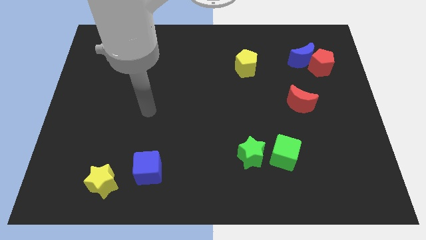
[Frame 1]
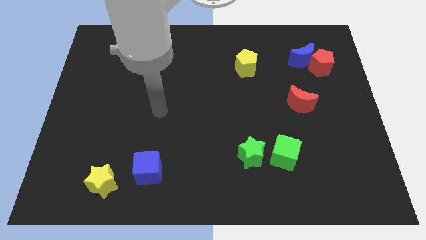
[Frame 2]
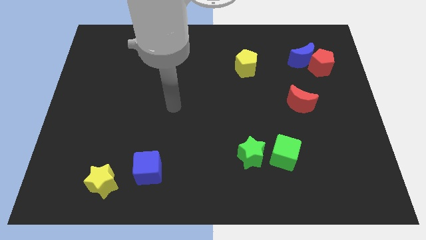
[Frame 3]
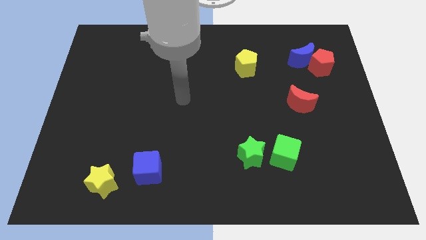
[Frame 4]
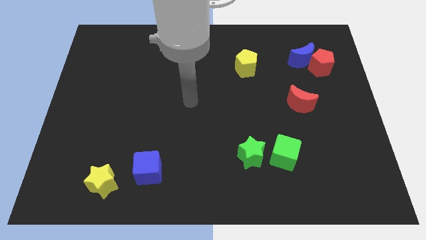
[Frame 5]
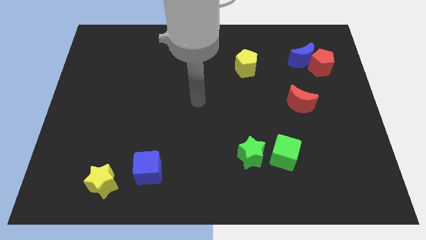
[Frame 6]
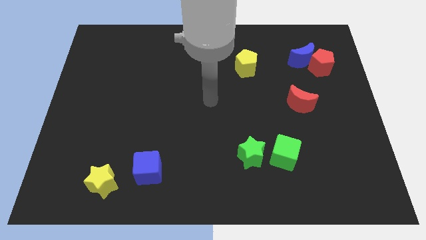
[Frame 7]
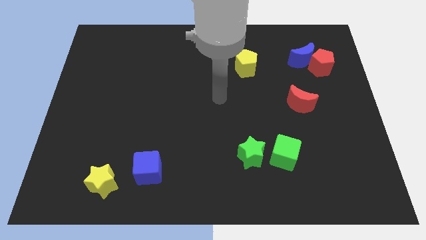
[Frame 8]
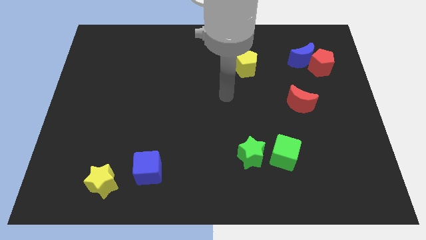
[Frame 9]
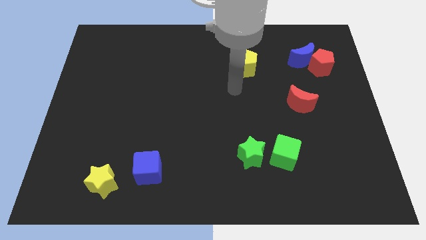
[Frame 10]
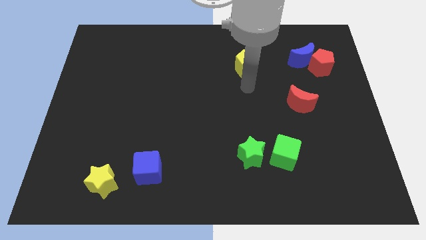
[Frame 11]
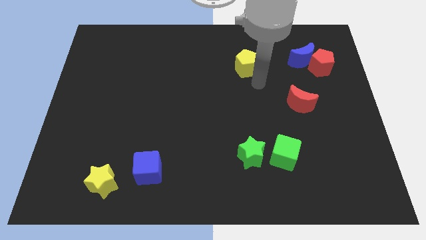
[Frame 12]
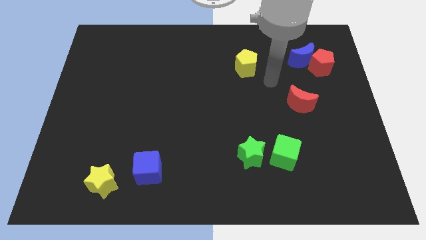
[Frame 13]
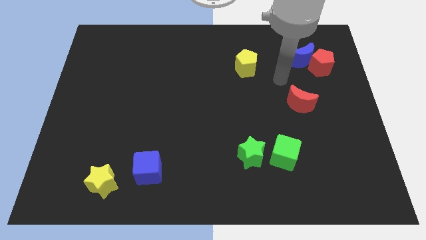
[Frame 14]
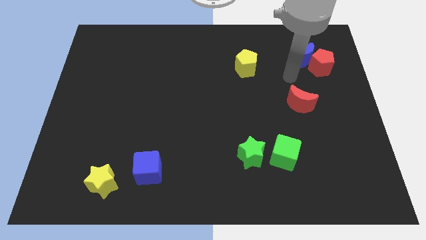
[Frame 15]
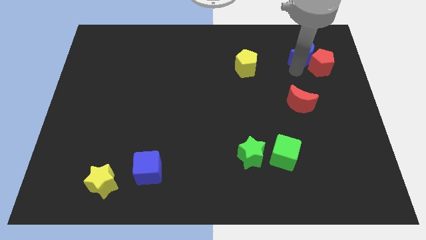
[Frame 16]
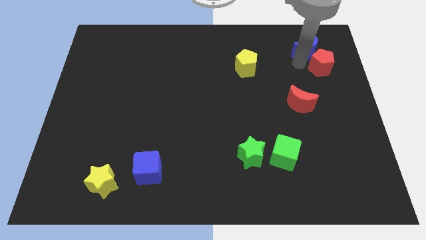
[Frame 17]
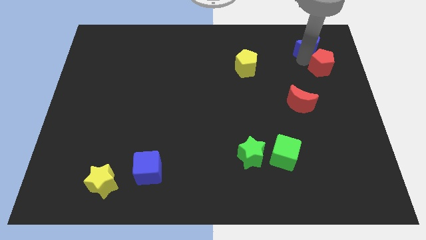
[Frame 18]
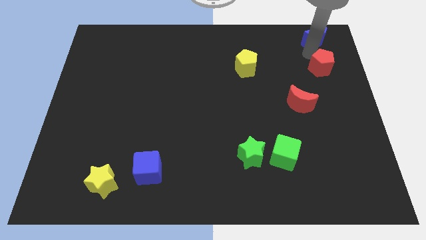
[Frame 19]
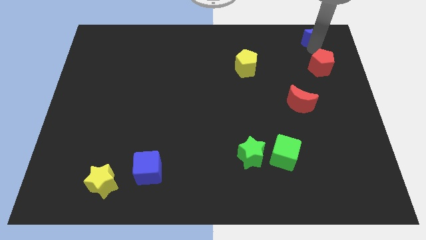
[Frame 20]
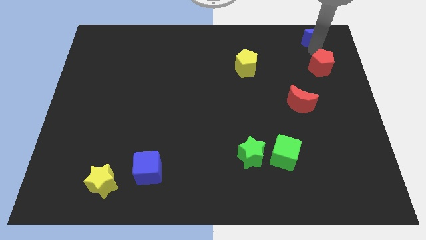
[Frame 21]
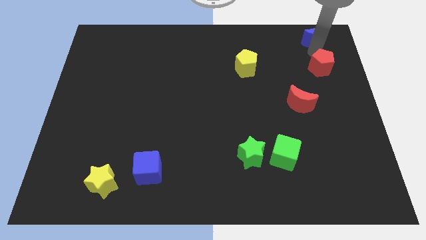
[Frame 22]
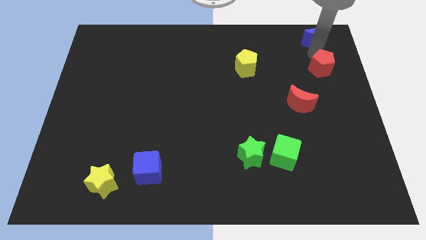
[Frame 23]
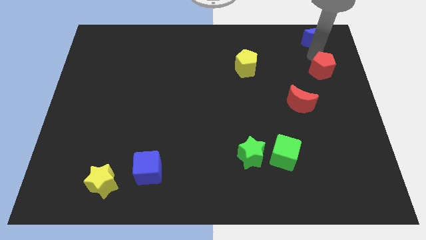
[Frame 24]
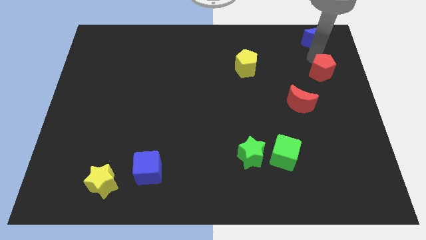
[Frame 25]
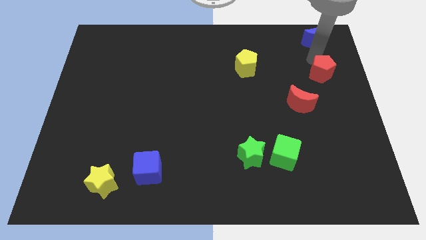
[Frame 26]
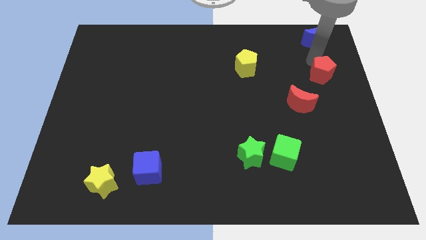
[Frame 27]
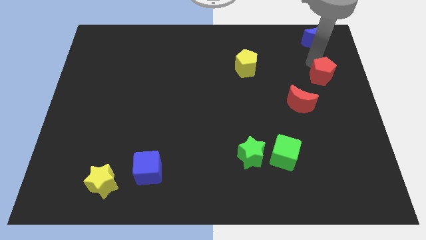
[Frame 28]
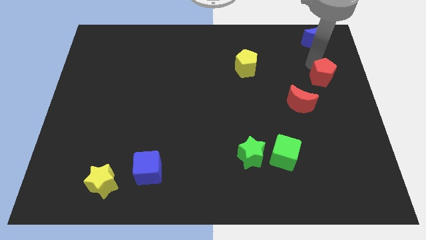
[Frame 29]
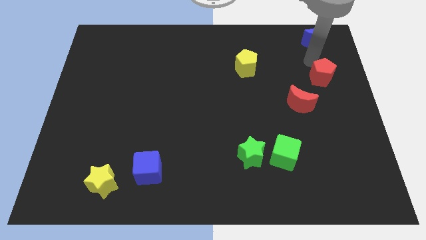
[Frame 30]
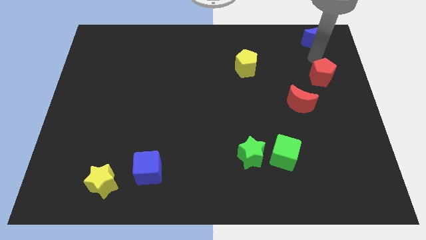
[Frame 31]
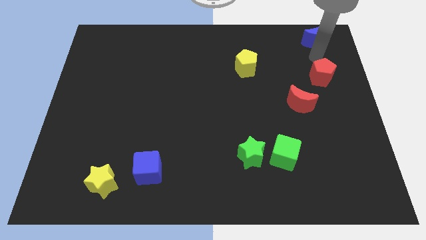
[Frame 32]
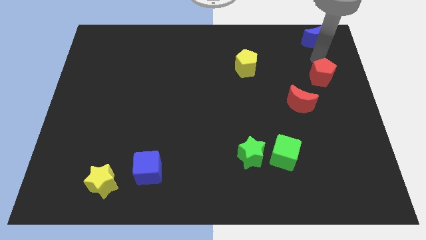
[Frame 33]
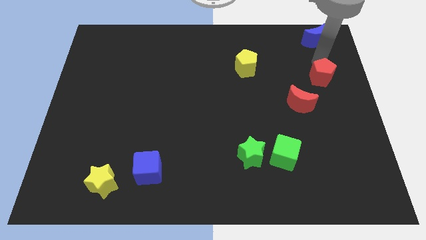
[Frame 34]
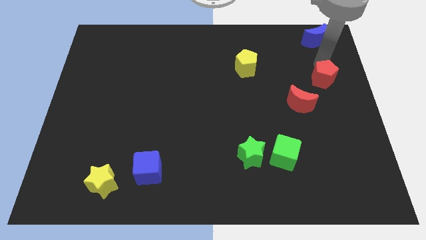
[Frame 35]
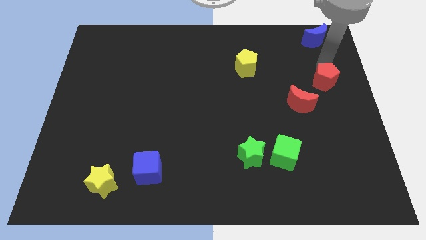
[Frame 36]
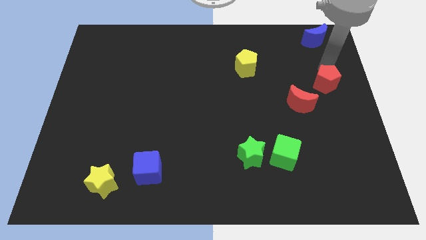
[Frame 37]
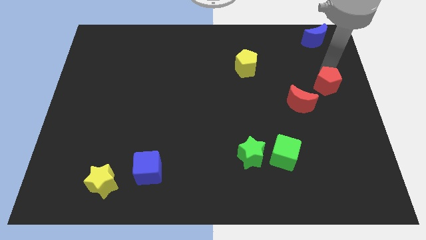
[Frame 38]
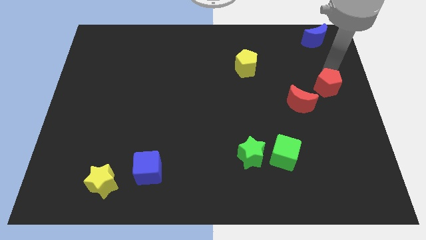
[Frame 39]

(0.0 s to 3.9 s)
move the red pentagon a bit downwards

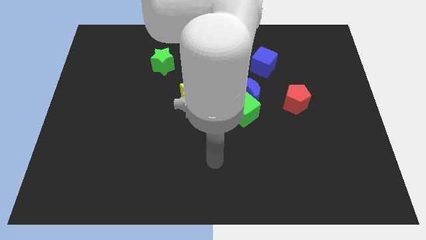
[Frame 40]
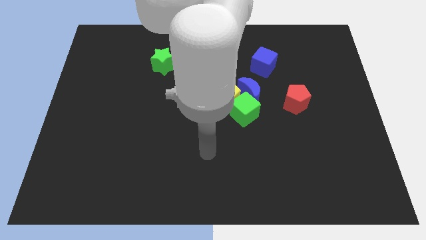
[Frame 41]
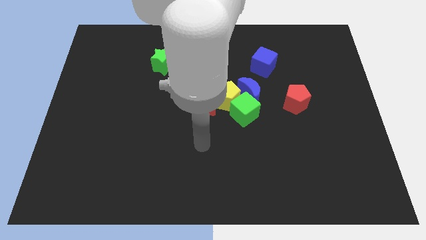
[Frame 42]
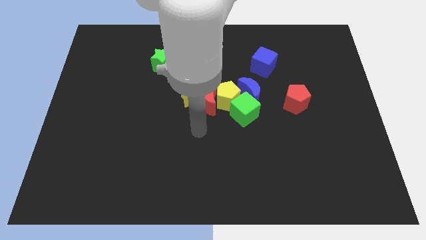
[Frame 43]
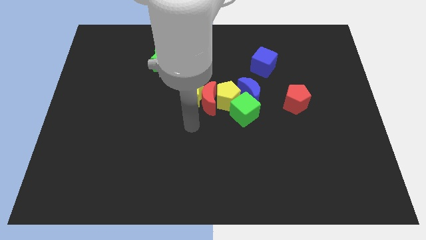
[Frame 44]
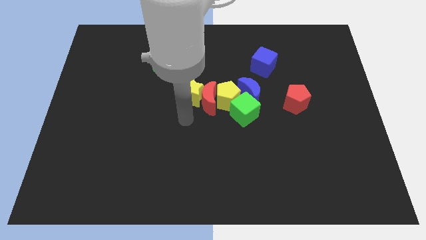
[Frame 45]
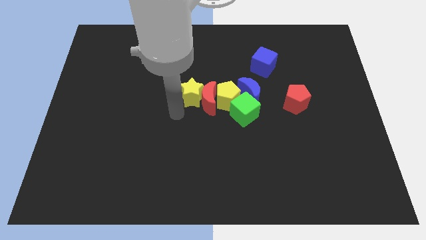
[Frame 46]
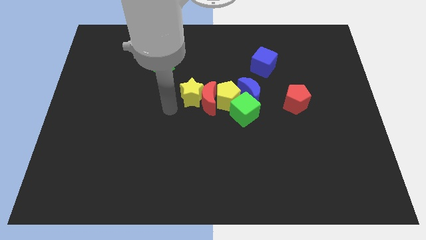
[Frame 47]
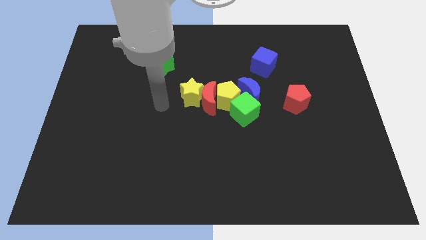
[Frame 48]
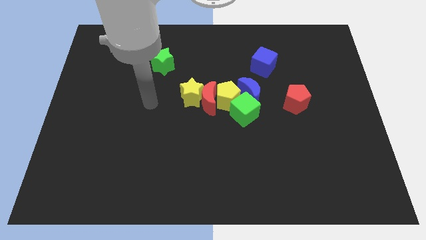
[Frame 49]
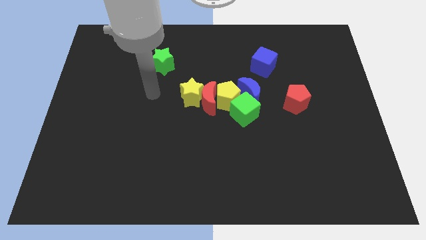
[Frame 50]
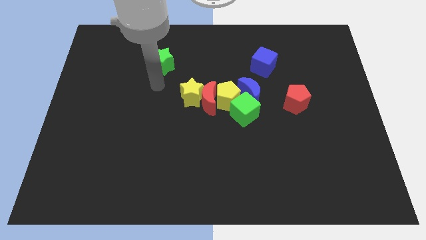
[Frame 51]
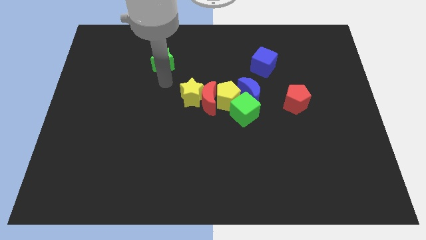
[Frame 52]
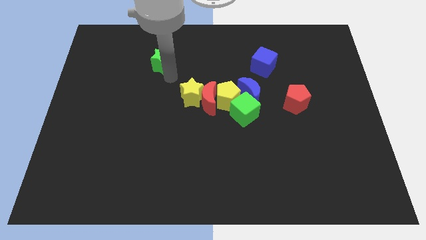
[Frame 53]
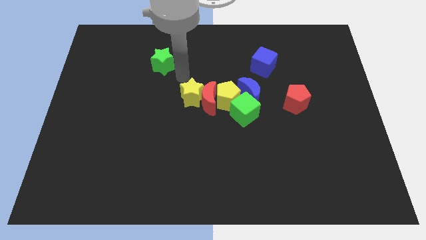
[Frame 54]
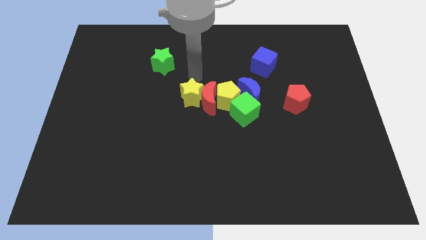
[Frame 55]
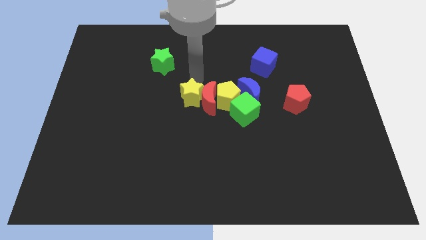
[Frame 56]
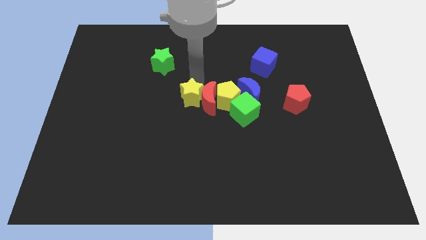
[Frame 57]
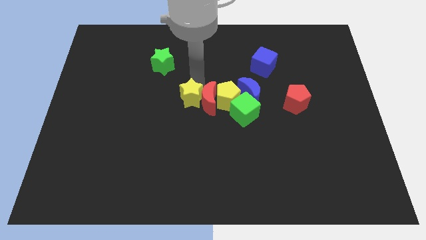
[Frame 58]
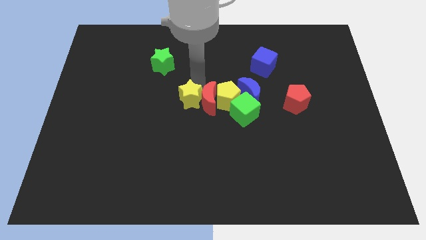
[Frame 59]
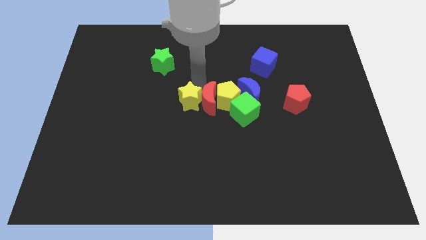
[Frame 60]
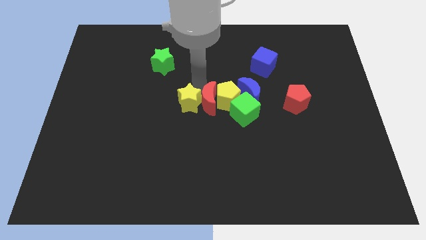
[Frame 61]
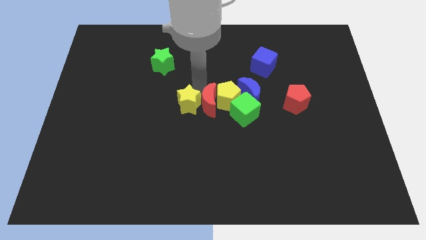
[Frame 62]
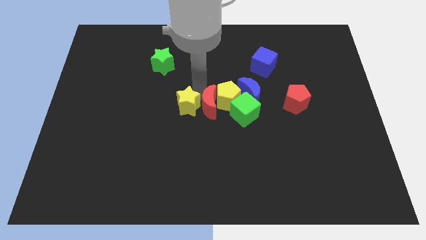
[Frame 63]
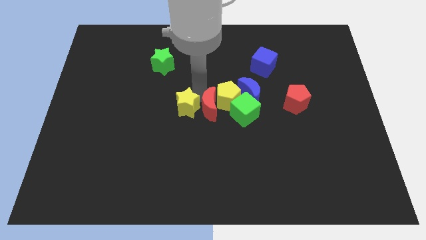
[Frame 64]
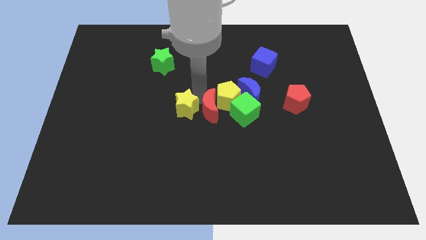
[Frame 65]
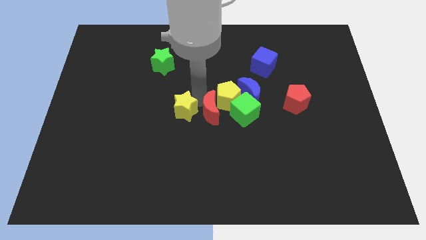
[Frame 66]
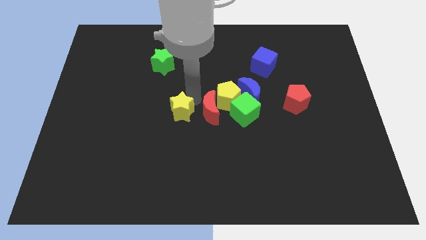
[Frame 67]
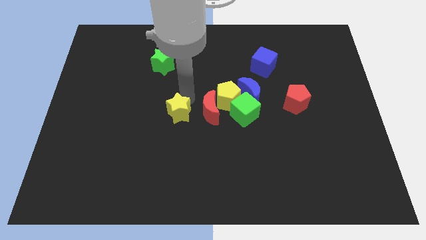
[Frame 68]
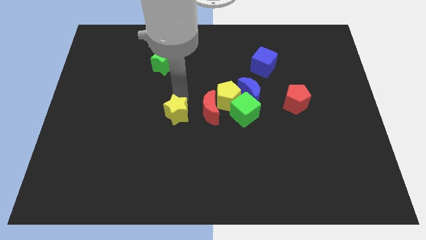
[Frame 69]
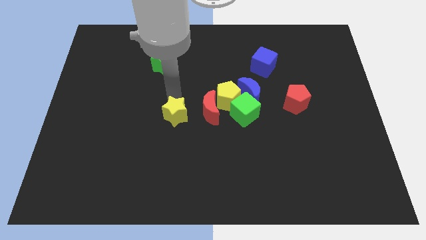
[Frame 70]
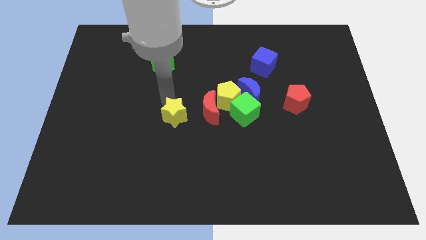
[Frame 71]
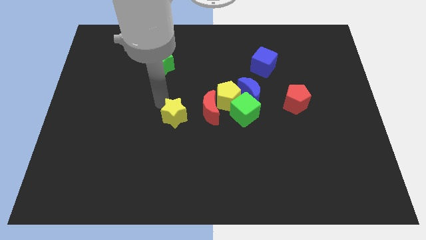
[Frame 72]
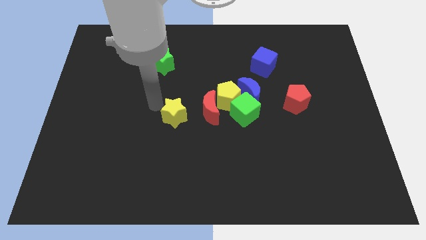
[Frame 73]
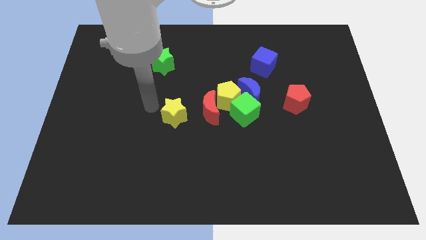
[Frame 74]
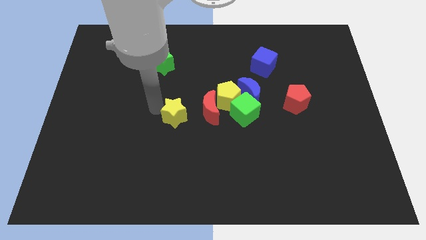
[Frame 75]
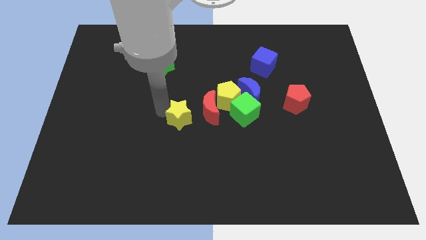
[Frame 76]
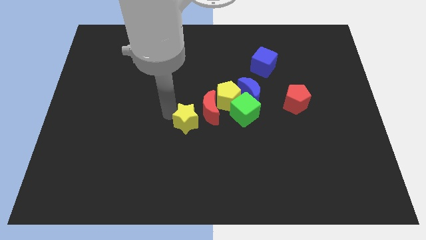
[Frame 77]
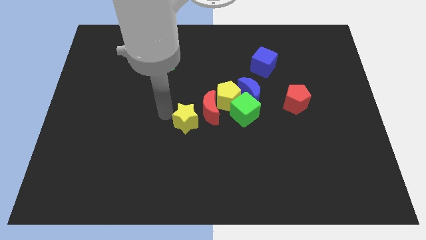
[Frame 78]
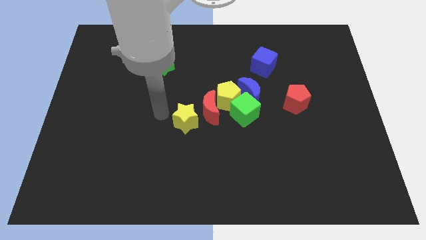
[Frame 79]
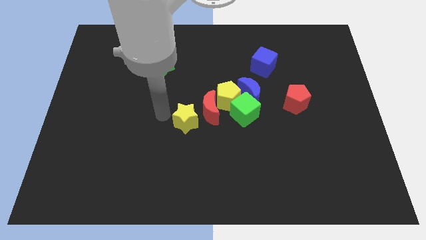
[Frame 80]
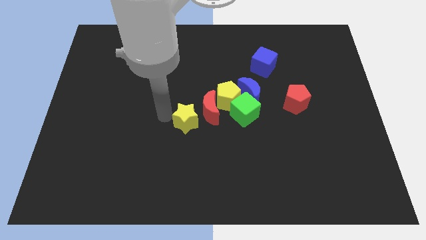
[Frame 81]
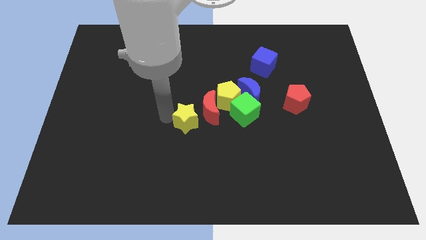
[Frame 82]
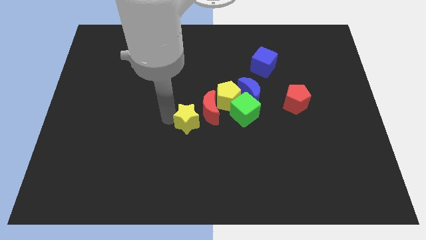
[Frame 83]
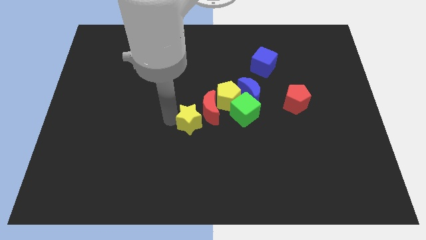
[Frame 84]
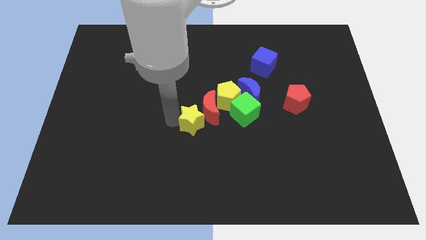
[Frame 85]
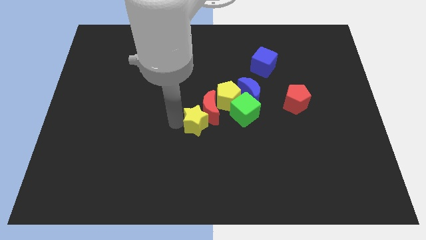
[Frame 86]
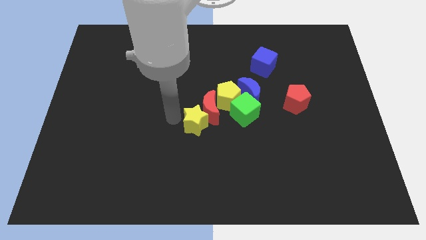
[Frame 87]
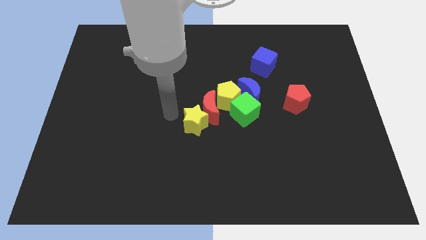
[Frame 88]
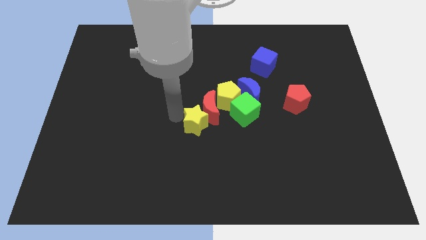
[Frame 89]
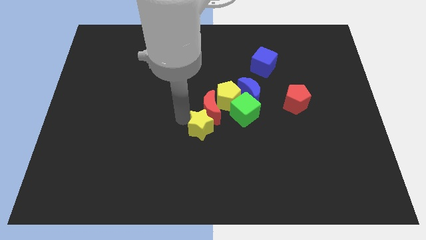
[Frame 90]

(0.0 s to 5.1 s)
slide the yellow star a little bit downwards and then to the right
